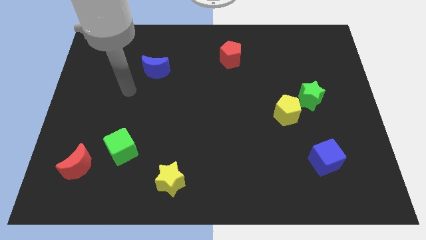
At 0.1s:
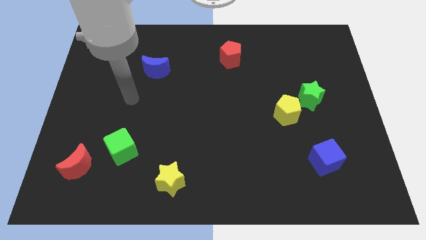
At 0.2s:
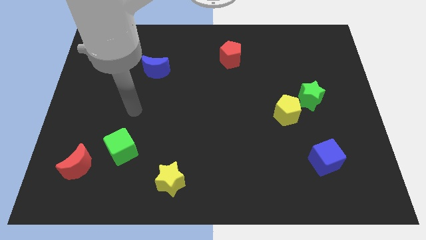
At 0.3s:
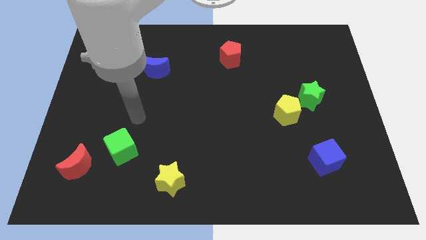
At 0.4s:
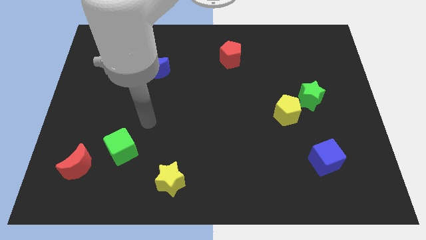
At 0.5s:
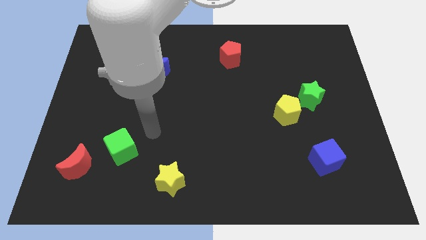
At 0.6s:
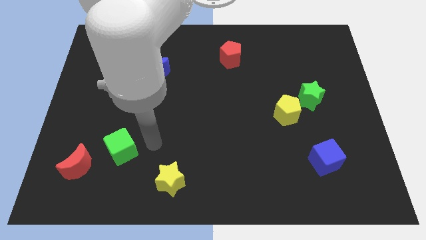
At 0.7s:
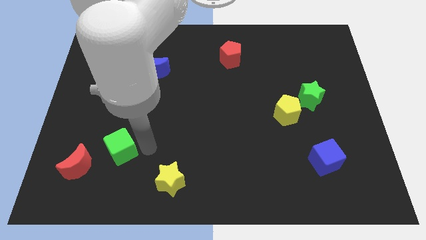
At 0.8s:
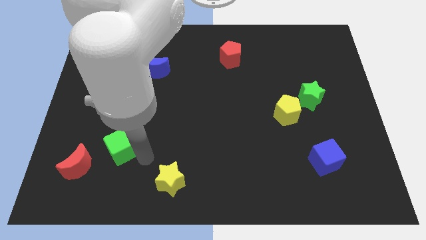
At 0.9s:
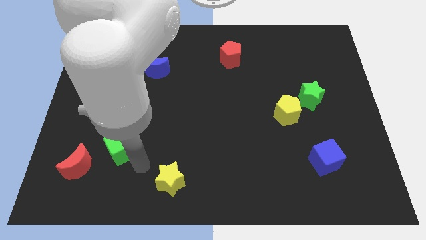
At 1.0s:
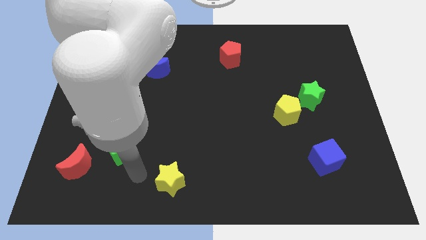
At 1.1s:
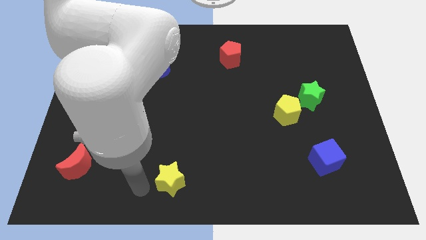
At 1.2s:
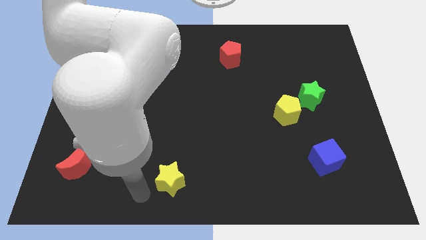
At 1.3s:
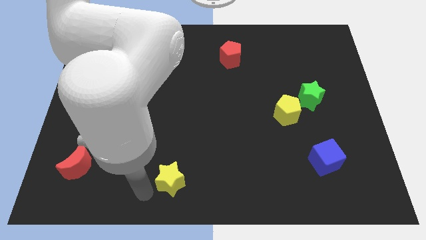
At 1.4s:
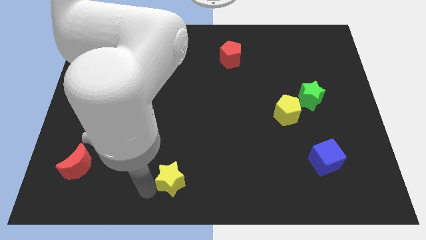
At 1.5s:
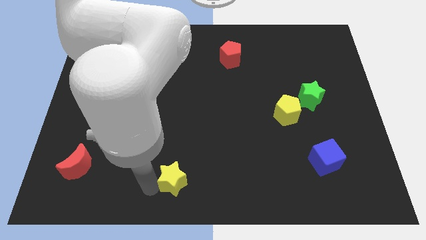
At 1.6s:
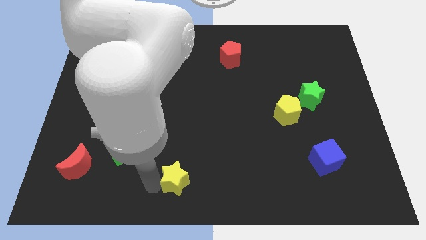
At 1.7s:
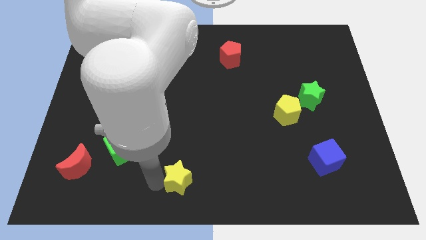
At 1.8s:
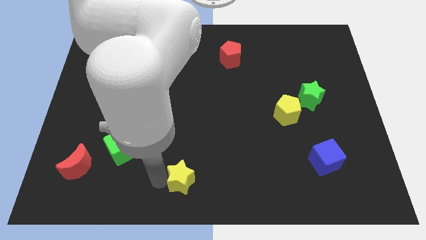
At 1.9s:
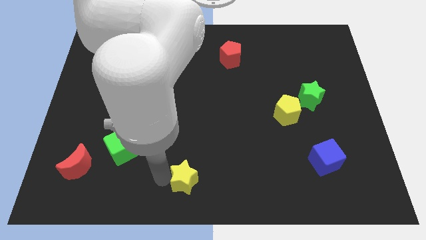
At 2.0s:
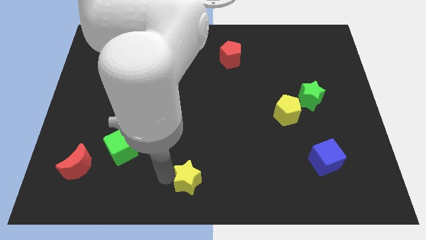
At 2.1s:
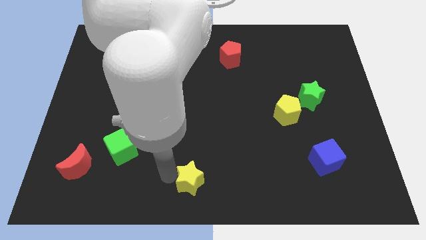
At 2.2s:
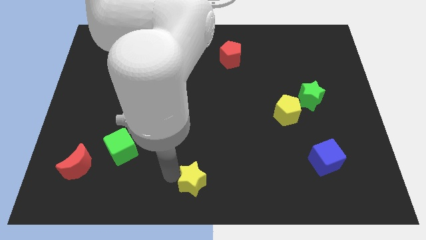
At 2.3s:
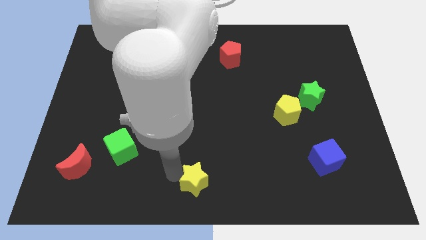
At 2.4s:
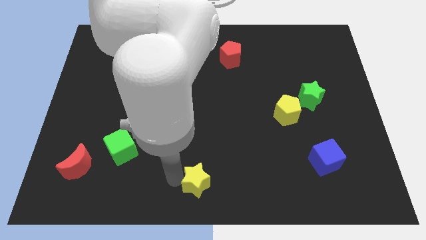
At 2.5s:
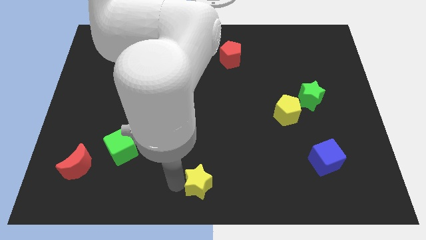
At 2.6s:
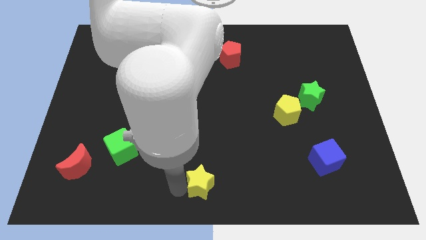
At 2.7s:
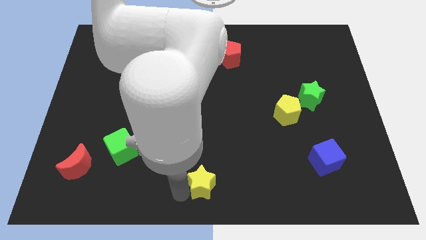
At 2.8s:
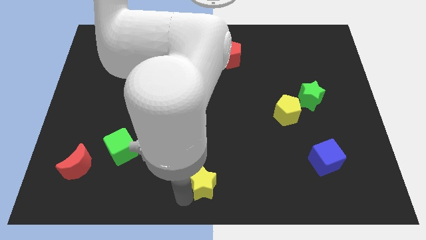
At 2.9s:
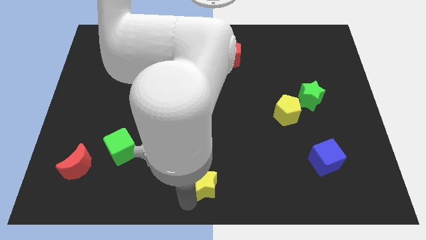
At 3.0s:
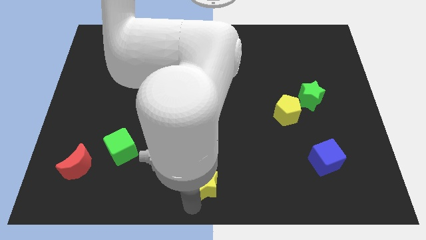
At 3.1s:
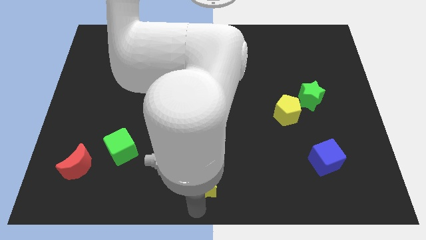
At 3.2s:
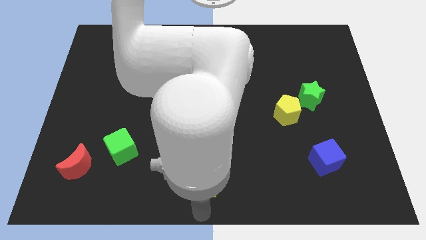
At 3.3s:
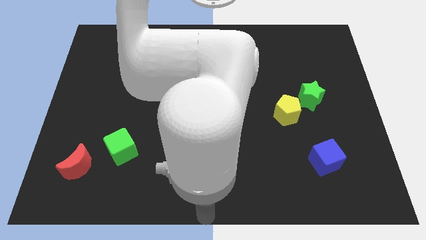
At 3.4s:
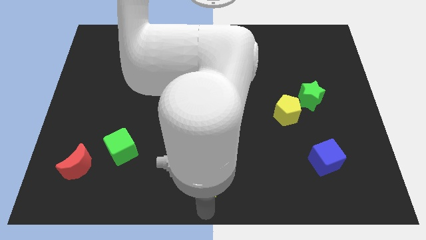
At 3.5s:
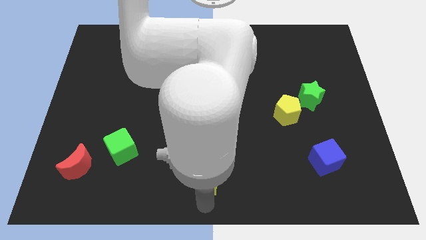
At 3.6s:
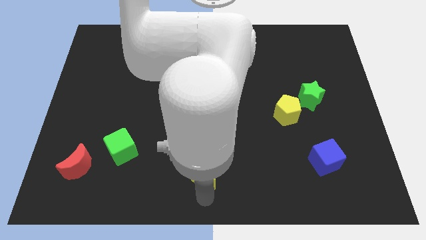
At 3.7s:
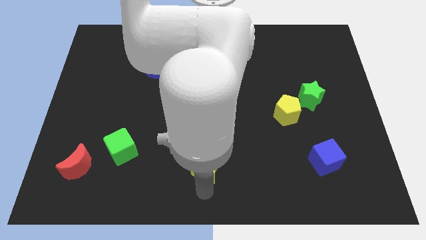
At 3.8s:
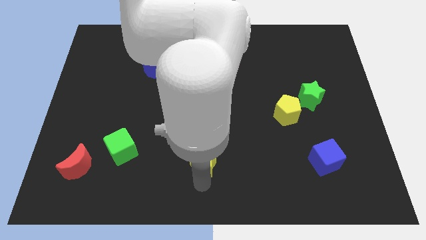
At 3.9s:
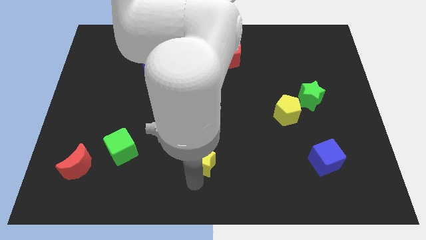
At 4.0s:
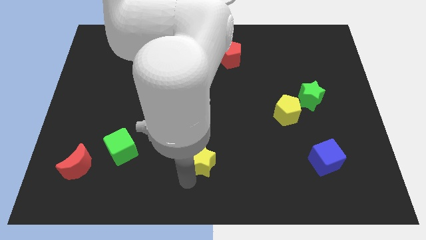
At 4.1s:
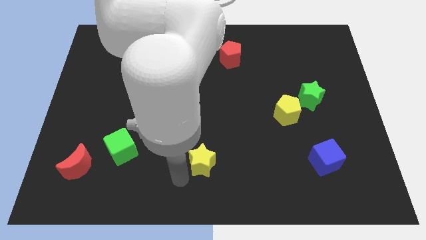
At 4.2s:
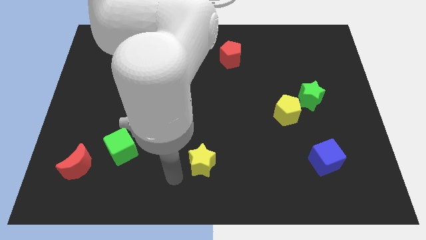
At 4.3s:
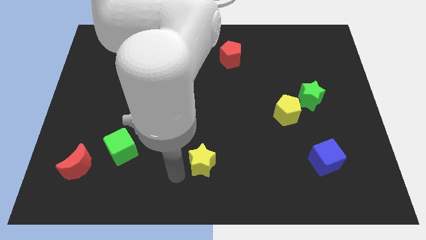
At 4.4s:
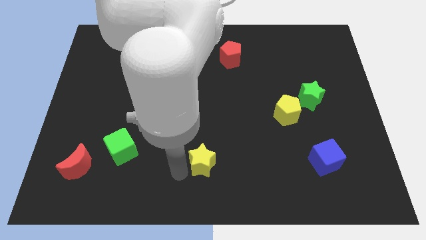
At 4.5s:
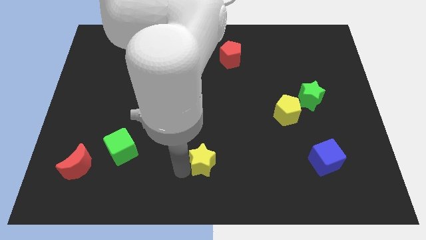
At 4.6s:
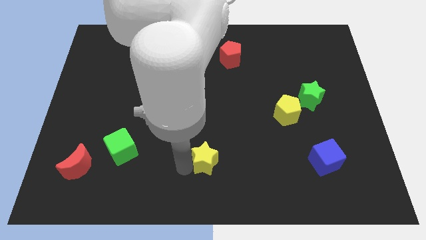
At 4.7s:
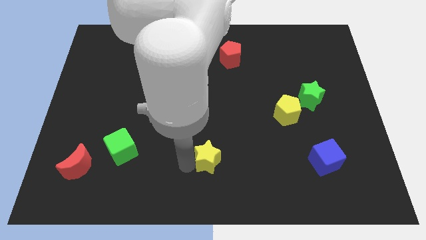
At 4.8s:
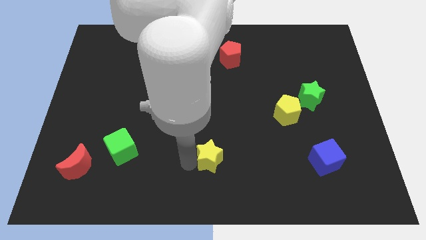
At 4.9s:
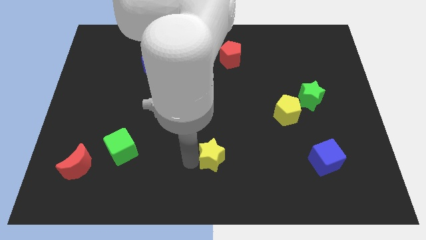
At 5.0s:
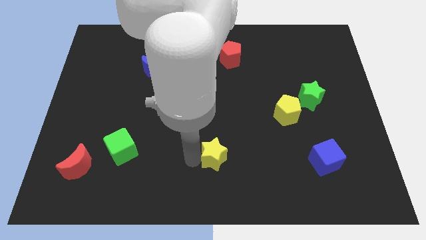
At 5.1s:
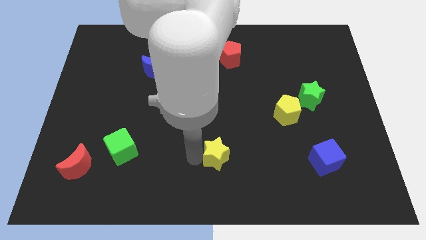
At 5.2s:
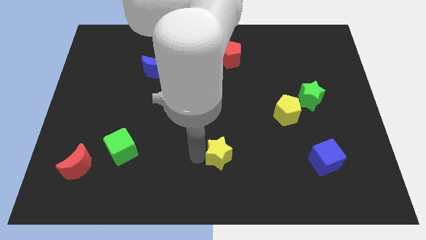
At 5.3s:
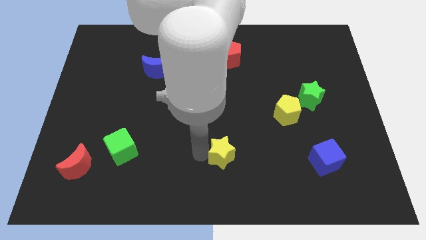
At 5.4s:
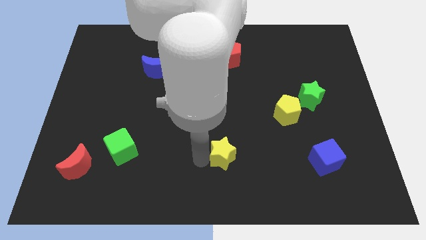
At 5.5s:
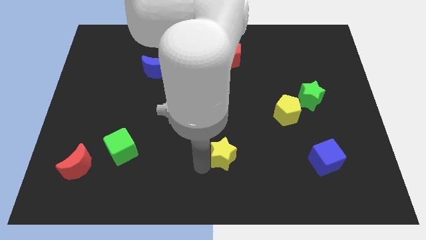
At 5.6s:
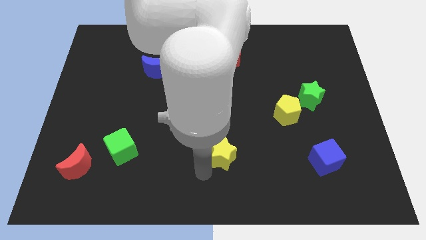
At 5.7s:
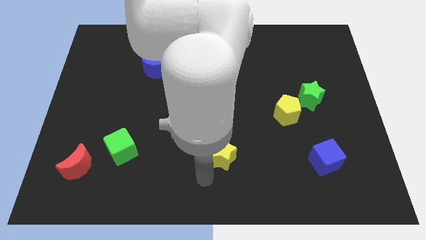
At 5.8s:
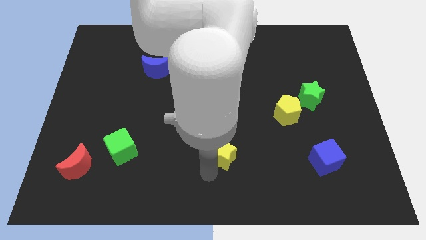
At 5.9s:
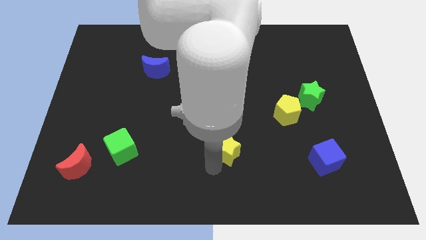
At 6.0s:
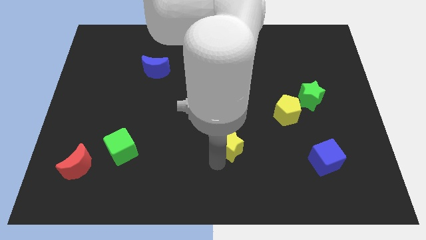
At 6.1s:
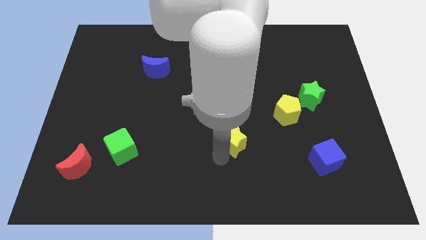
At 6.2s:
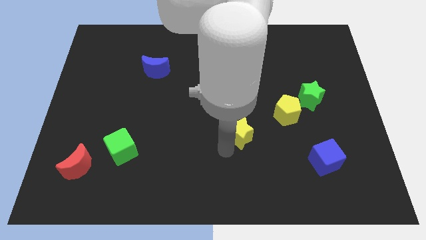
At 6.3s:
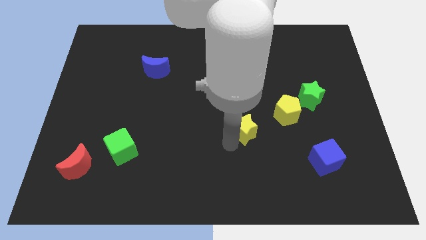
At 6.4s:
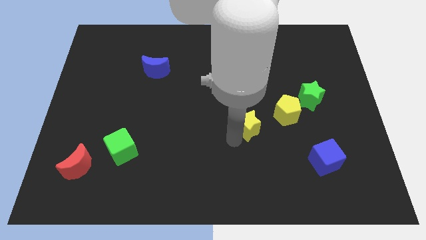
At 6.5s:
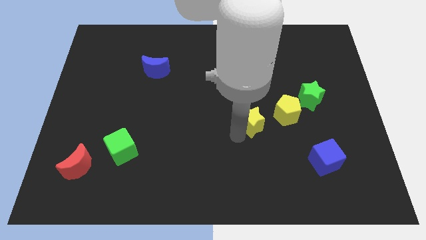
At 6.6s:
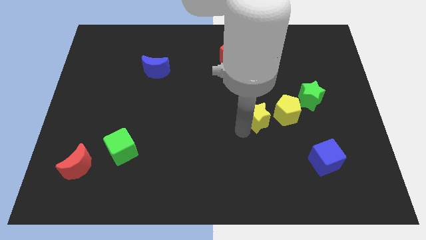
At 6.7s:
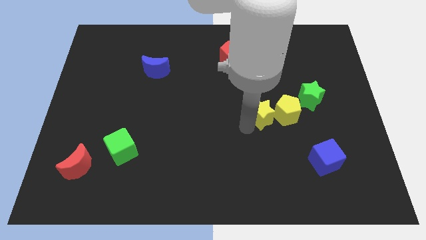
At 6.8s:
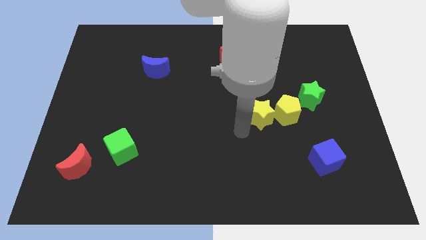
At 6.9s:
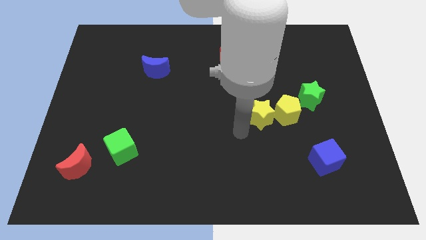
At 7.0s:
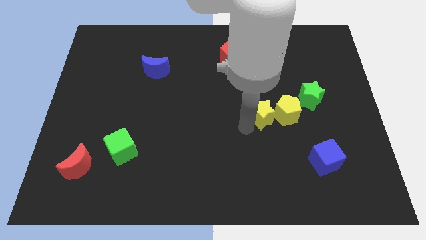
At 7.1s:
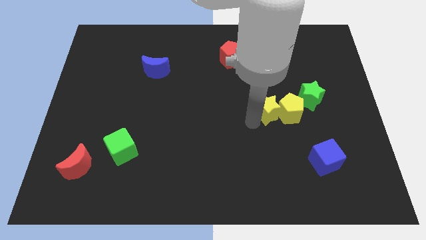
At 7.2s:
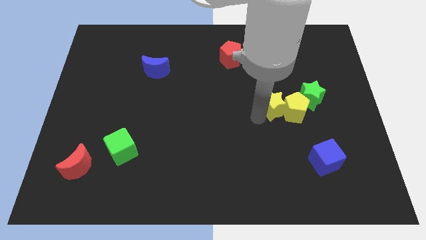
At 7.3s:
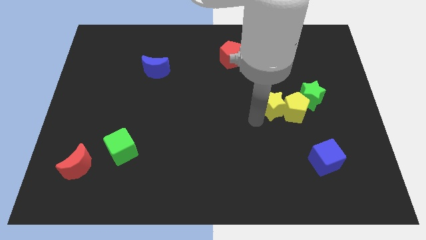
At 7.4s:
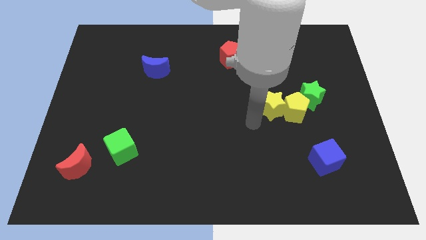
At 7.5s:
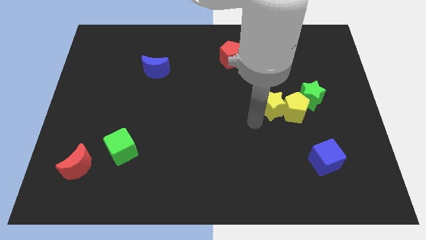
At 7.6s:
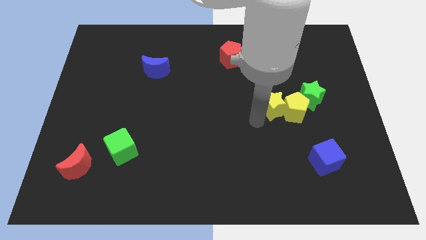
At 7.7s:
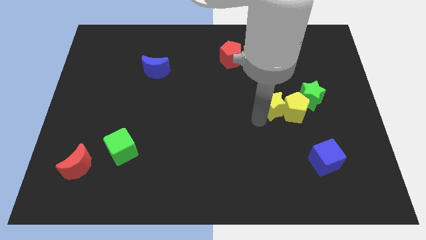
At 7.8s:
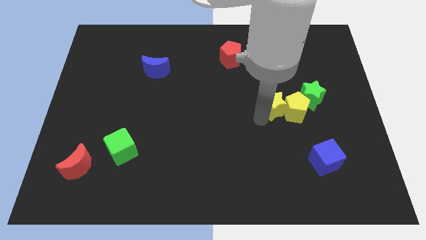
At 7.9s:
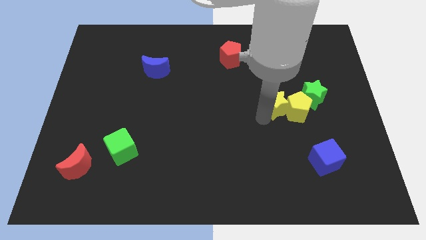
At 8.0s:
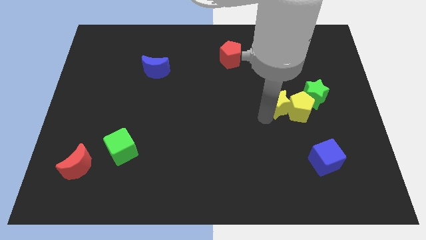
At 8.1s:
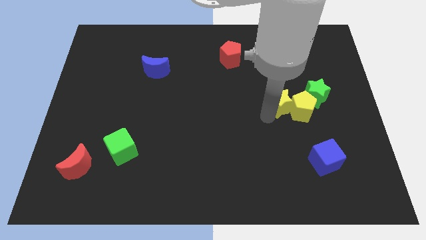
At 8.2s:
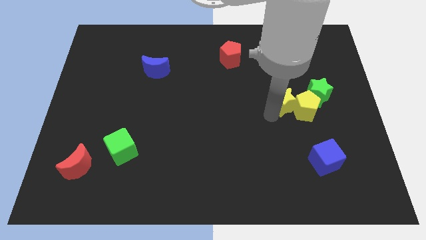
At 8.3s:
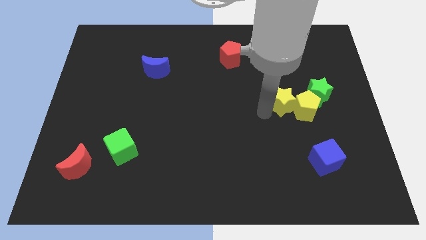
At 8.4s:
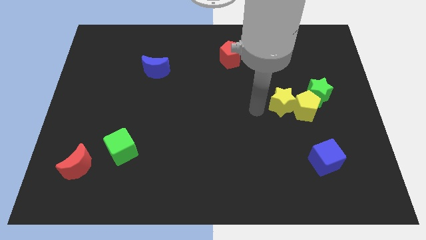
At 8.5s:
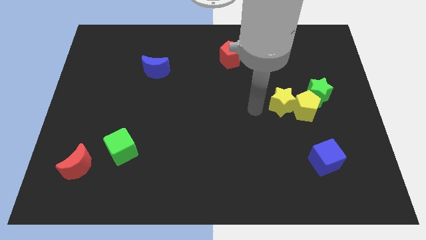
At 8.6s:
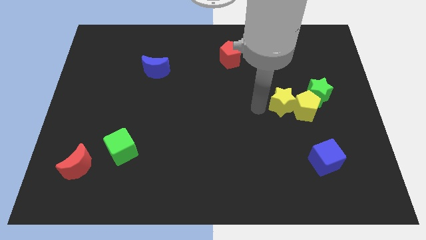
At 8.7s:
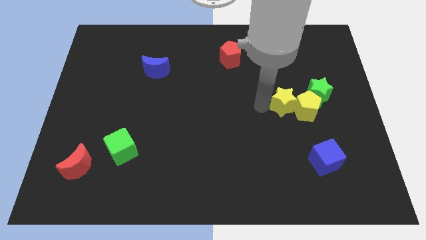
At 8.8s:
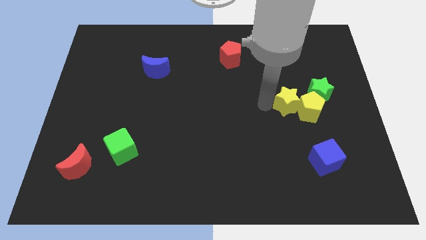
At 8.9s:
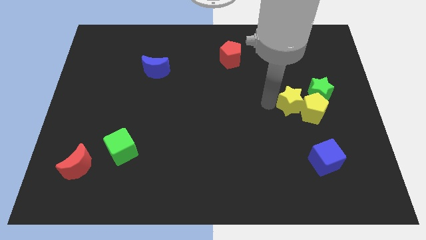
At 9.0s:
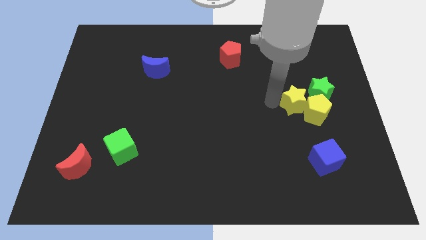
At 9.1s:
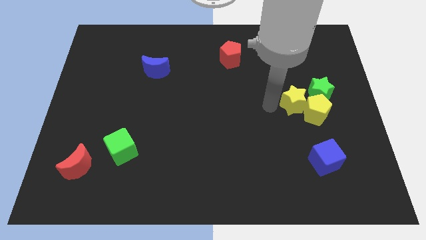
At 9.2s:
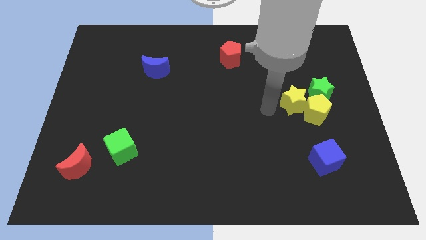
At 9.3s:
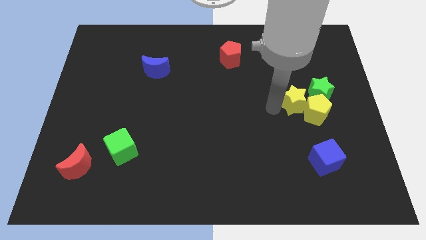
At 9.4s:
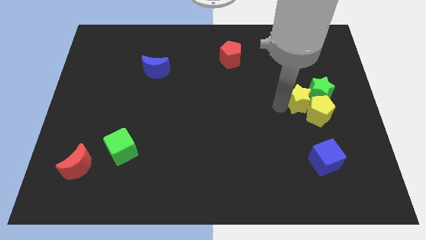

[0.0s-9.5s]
put the yellow star close to the green star
